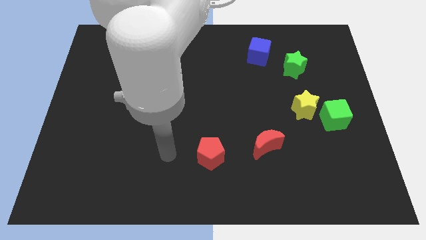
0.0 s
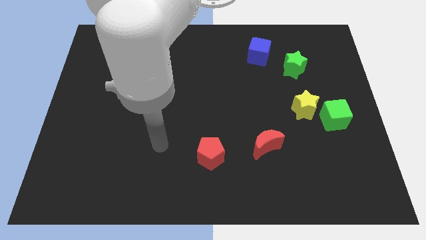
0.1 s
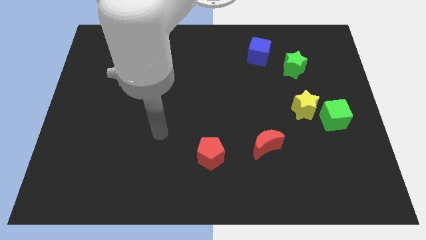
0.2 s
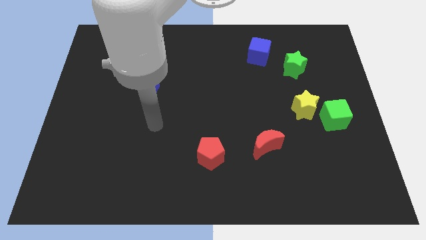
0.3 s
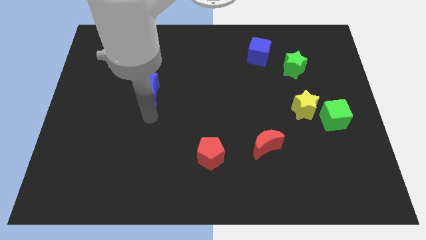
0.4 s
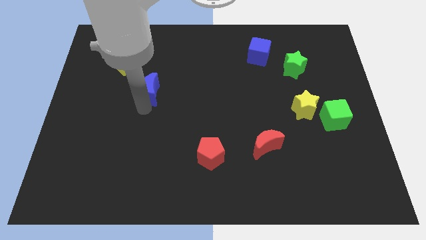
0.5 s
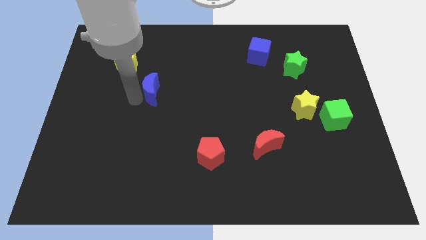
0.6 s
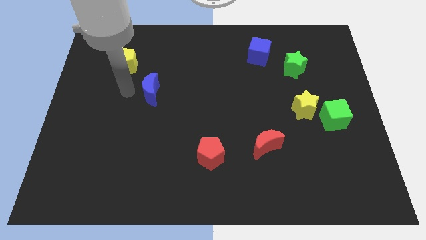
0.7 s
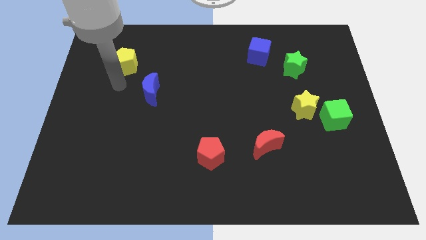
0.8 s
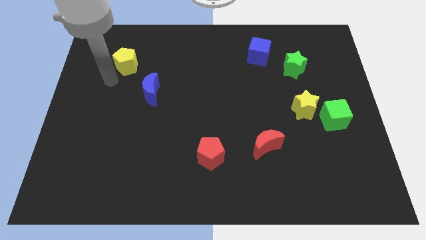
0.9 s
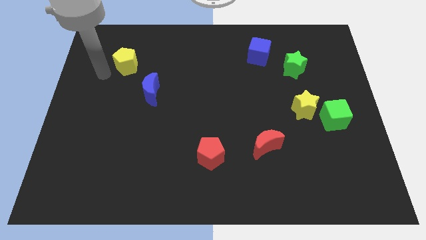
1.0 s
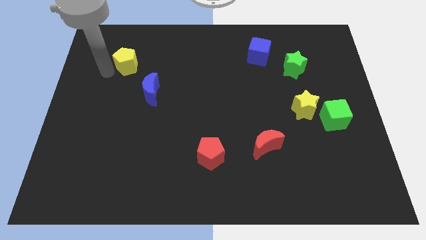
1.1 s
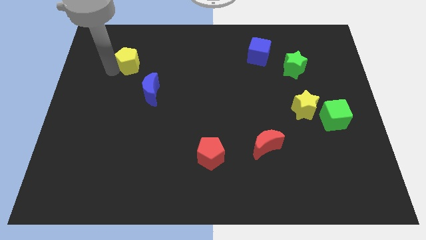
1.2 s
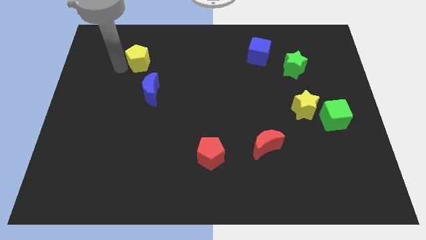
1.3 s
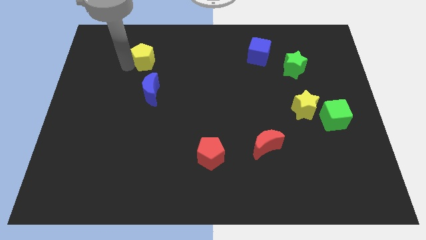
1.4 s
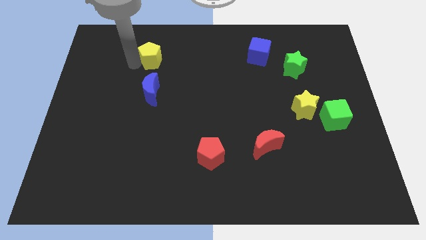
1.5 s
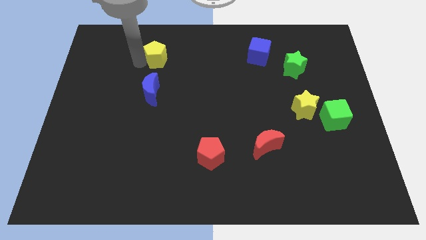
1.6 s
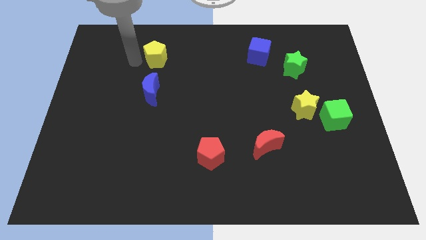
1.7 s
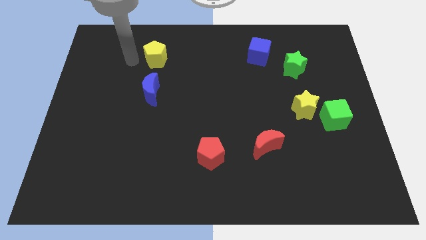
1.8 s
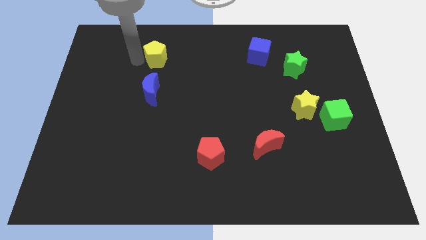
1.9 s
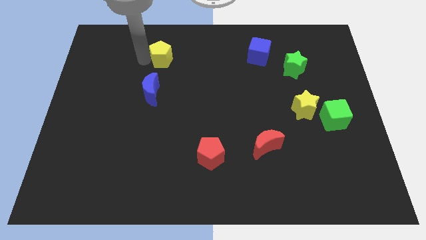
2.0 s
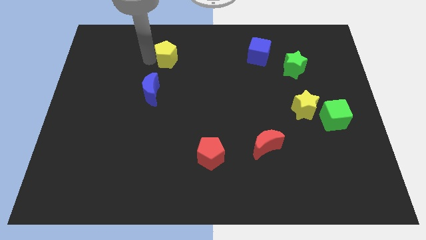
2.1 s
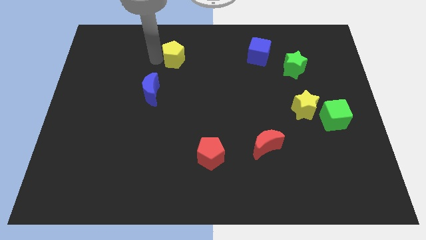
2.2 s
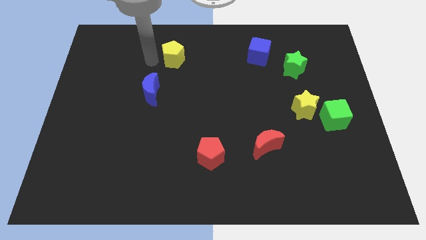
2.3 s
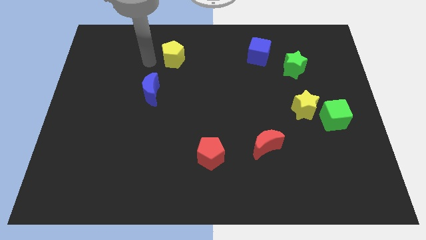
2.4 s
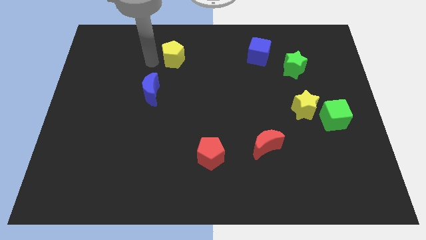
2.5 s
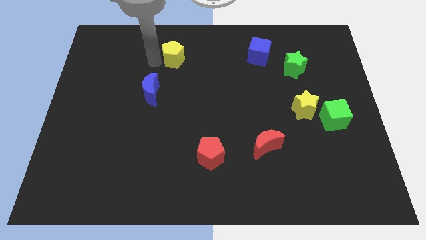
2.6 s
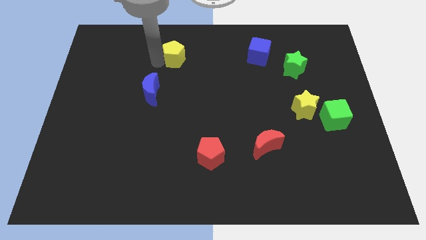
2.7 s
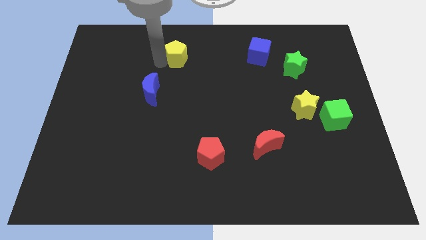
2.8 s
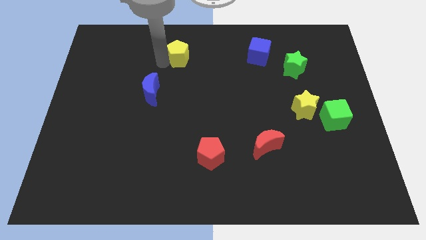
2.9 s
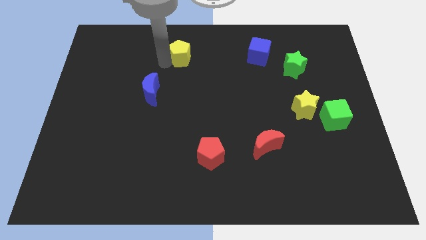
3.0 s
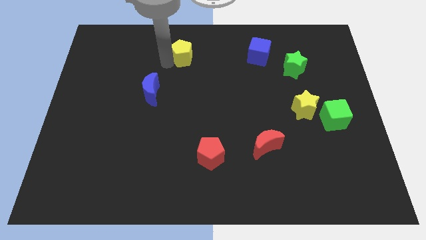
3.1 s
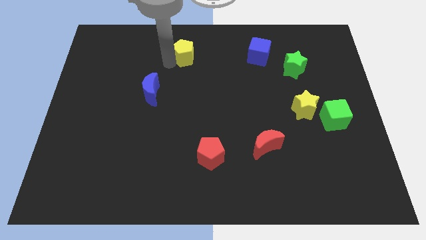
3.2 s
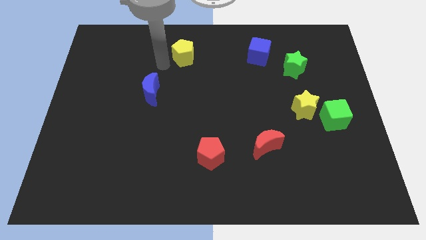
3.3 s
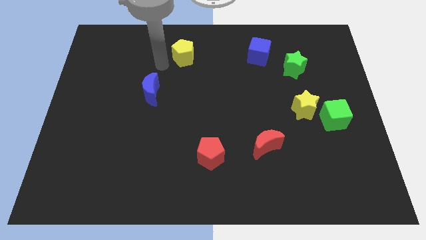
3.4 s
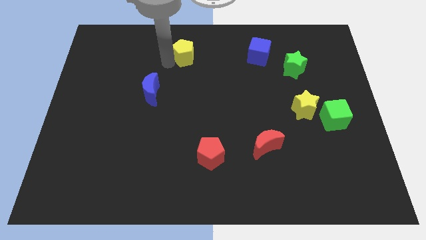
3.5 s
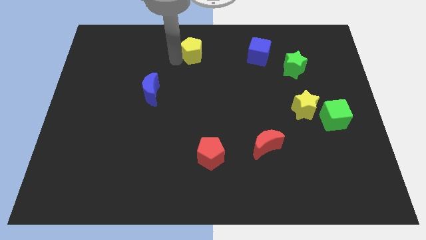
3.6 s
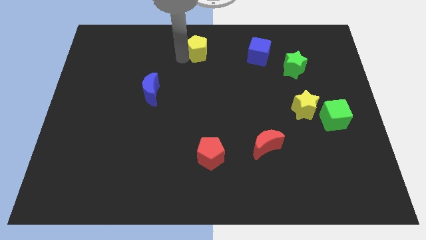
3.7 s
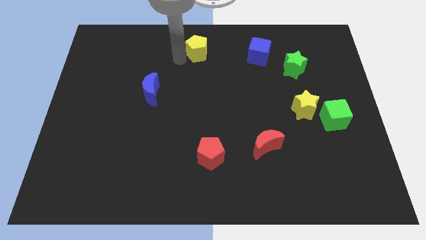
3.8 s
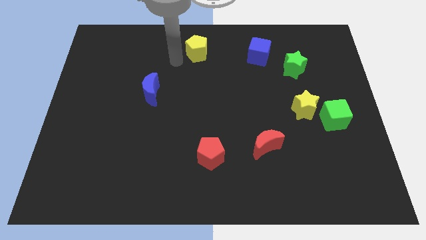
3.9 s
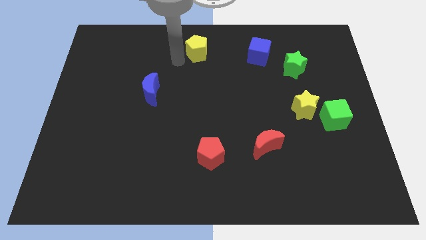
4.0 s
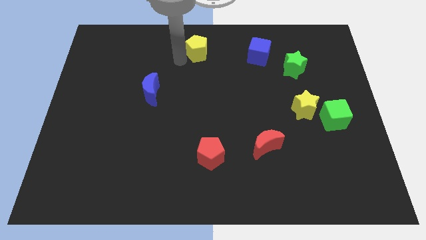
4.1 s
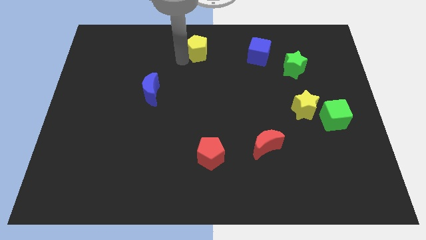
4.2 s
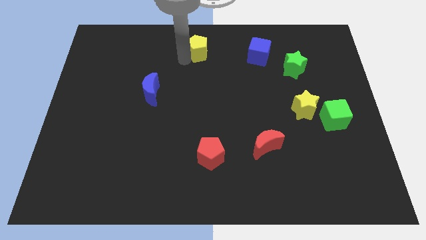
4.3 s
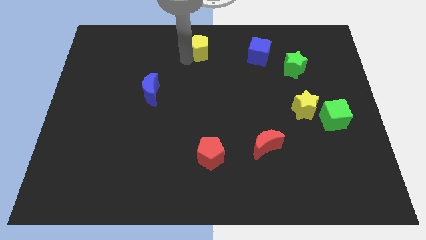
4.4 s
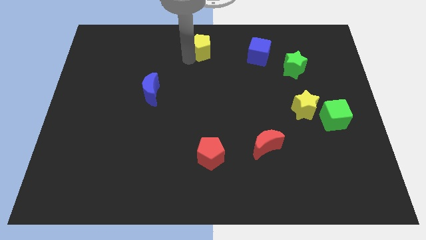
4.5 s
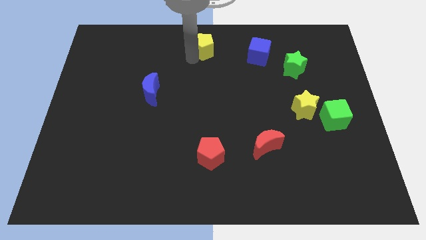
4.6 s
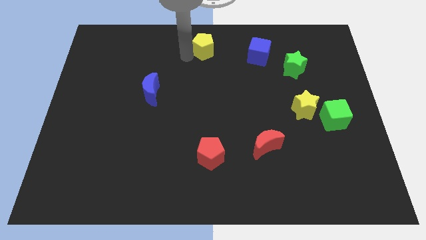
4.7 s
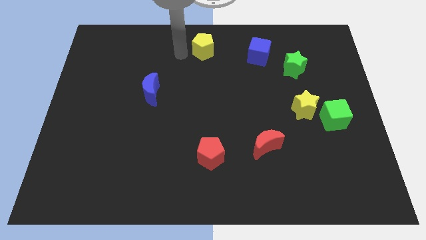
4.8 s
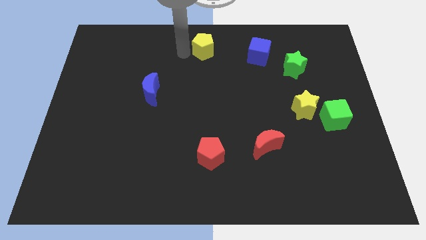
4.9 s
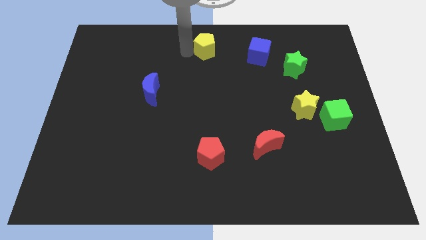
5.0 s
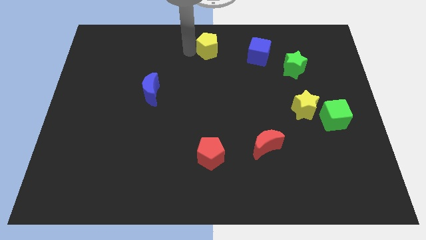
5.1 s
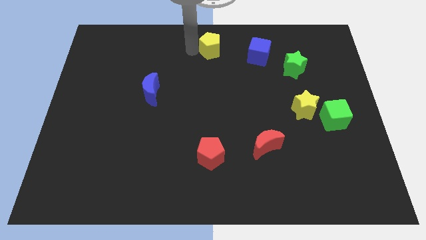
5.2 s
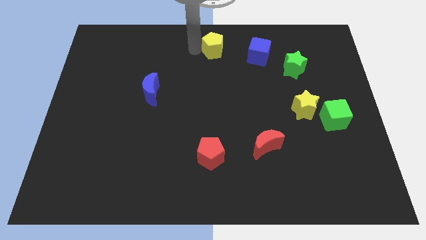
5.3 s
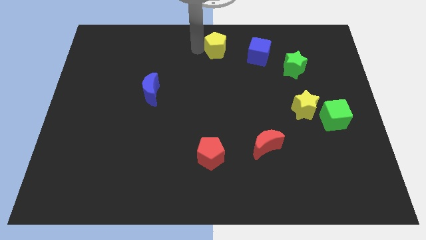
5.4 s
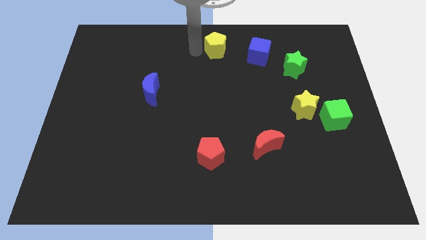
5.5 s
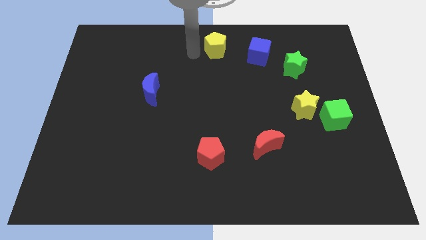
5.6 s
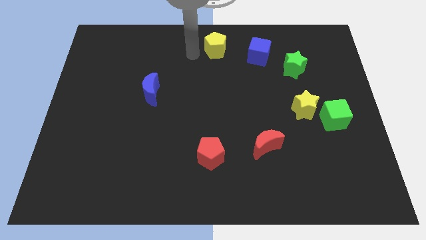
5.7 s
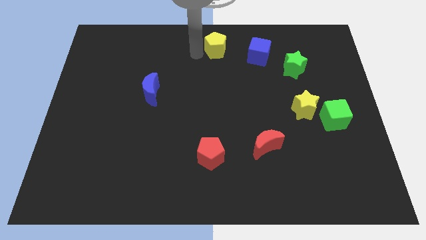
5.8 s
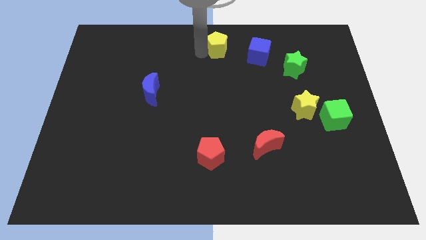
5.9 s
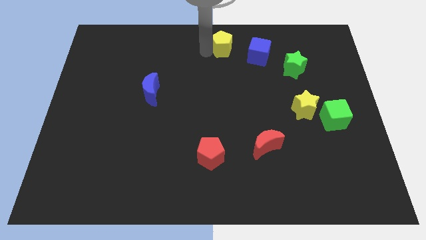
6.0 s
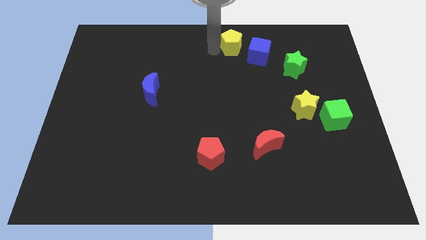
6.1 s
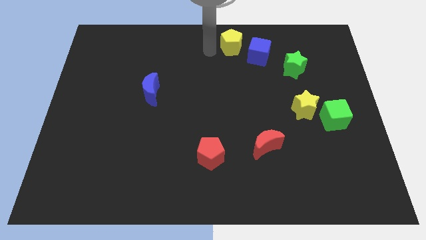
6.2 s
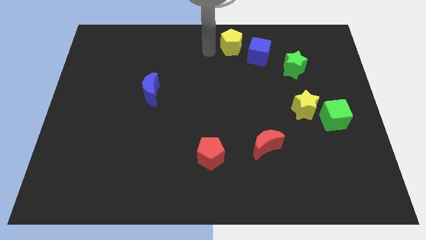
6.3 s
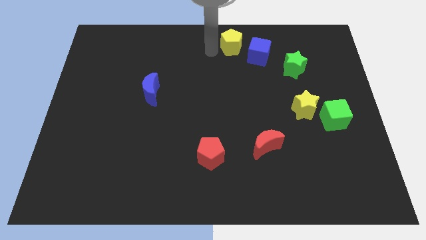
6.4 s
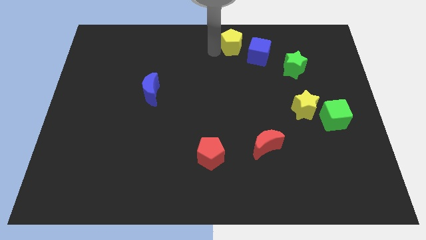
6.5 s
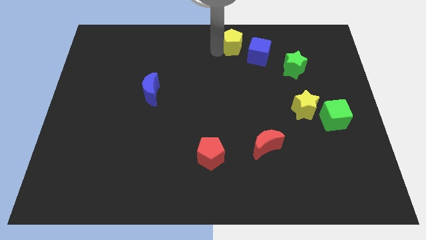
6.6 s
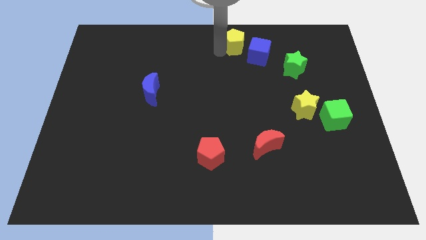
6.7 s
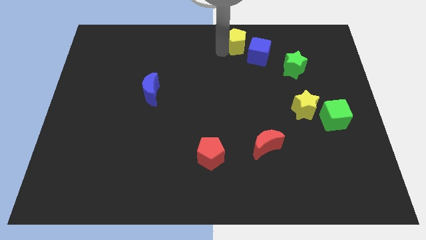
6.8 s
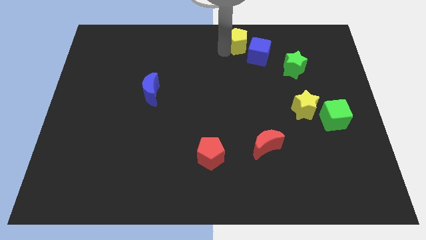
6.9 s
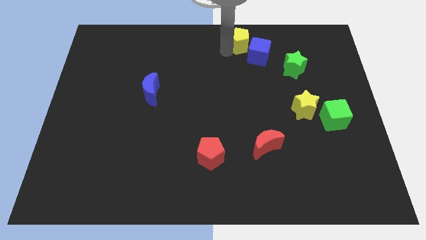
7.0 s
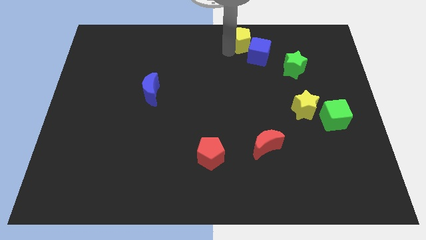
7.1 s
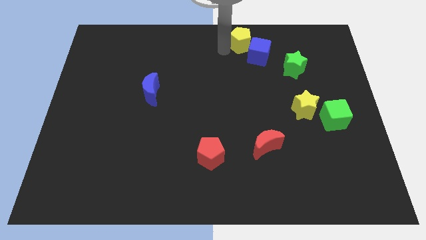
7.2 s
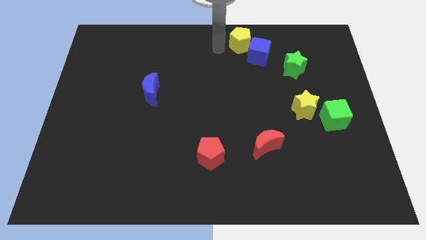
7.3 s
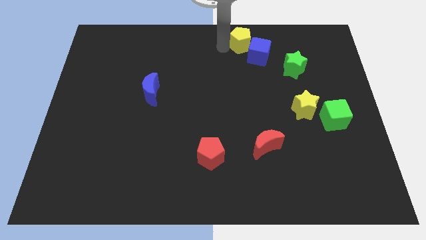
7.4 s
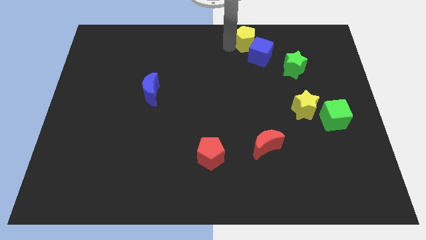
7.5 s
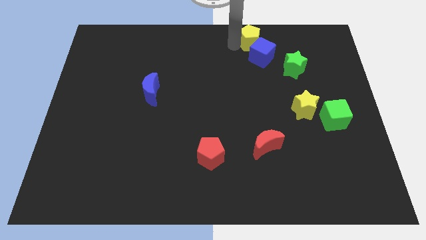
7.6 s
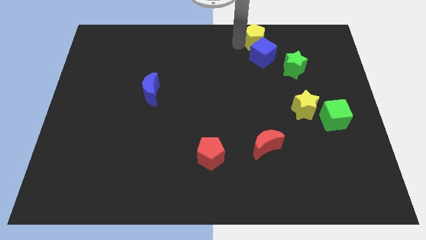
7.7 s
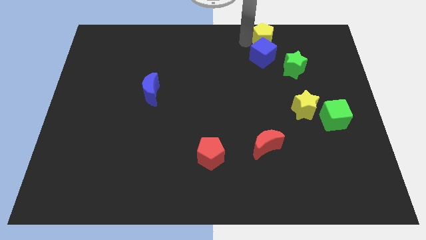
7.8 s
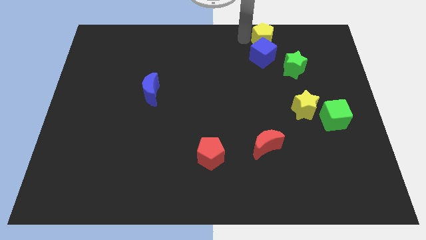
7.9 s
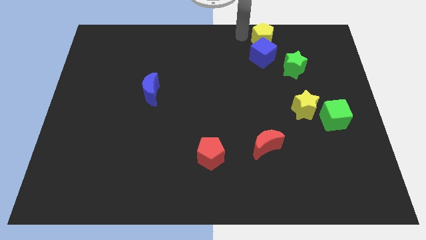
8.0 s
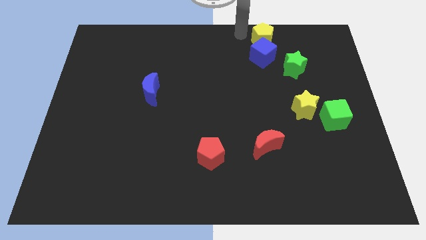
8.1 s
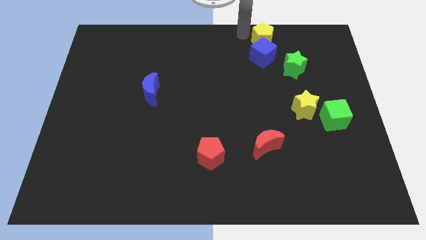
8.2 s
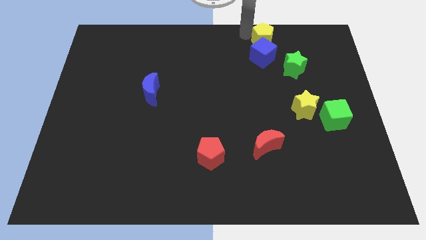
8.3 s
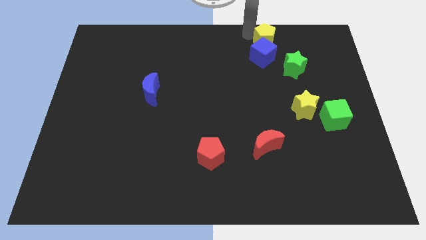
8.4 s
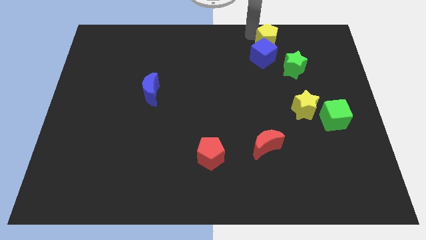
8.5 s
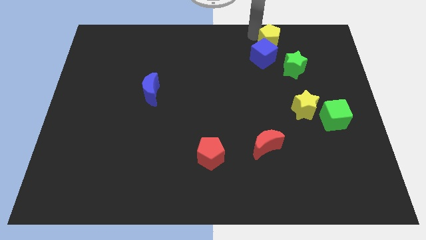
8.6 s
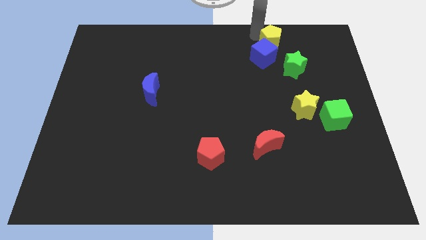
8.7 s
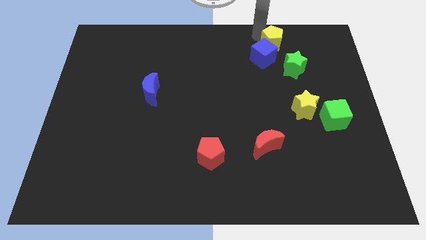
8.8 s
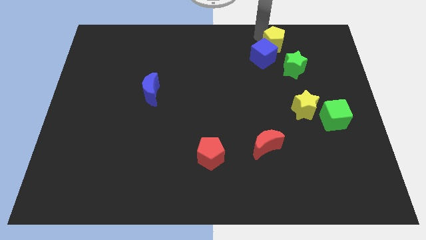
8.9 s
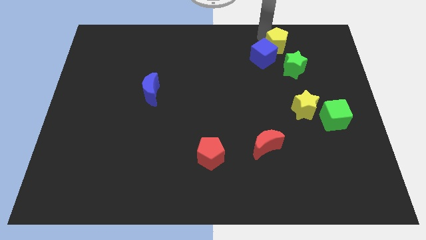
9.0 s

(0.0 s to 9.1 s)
move the yellow pentagon right of the blue cube
